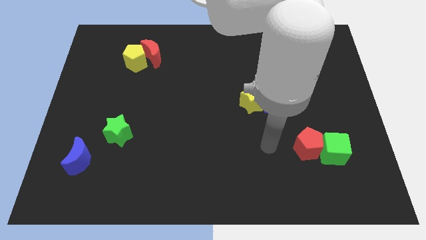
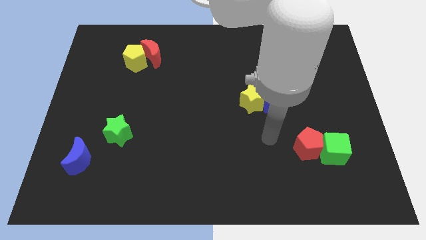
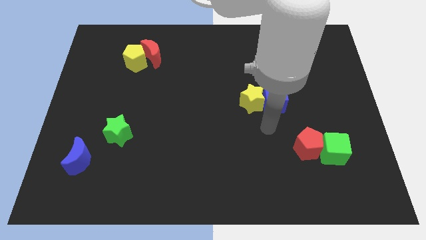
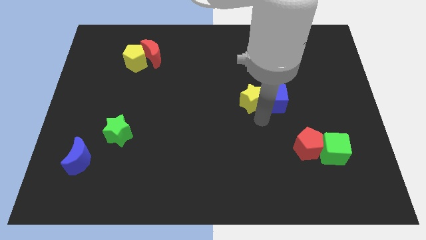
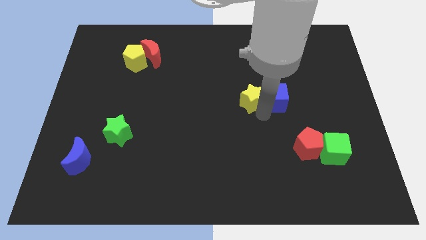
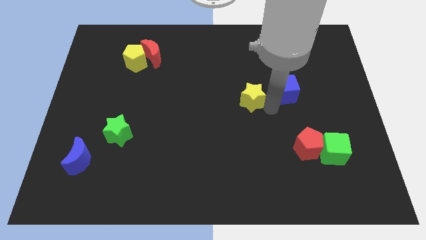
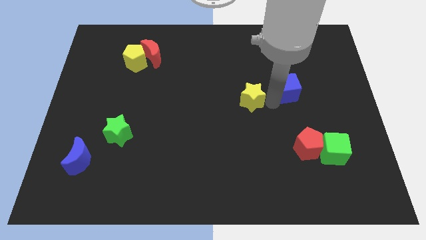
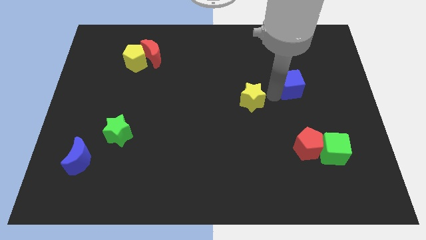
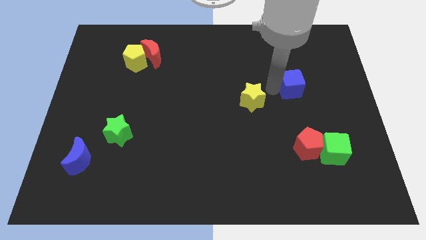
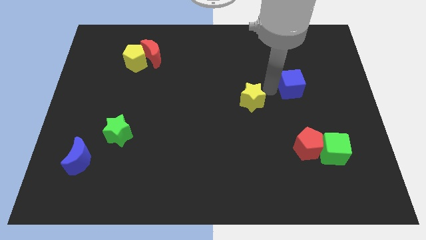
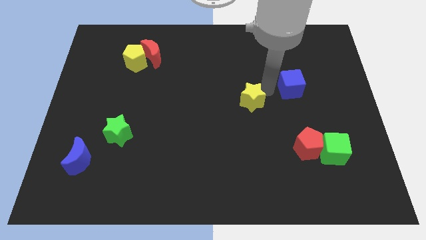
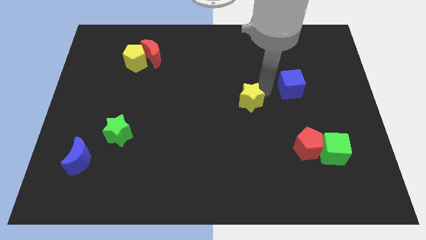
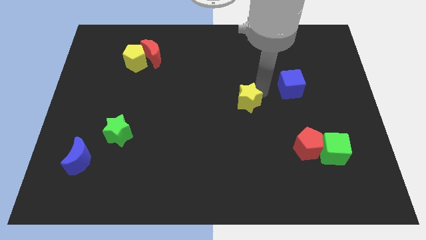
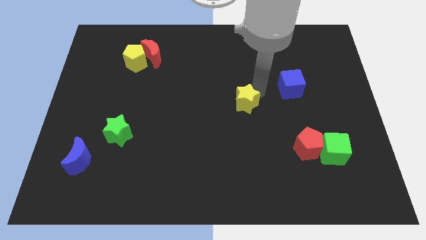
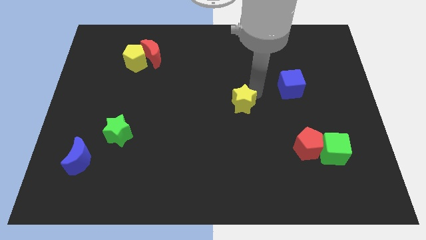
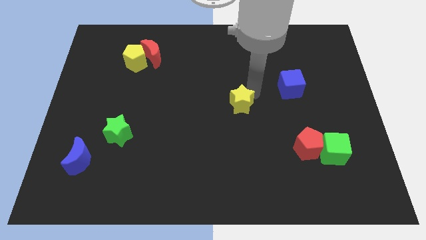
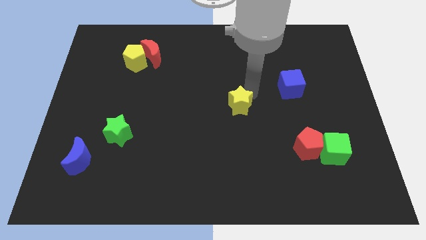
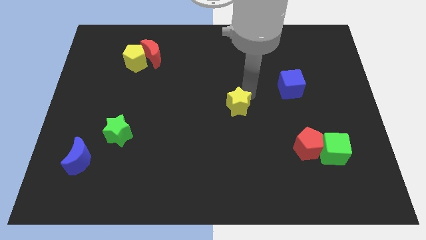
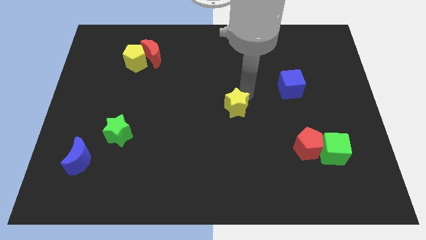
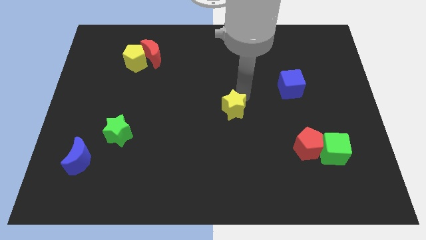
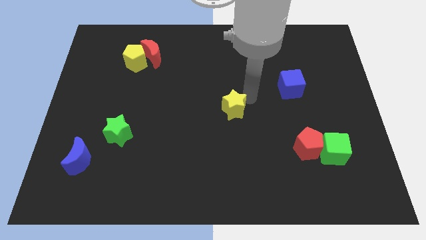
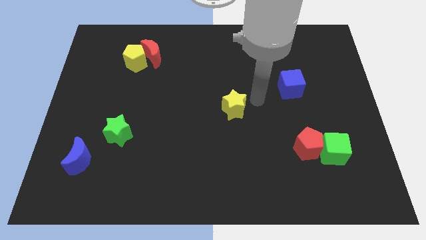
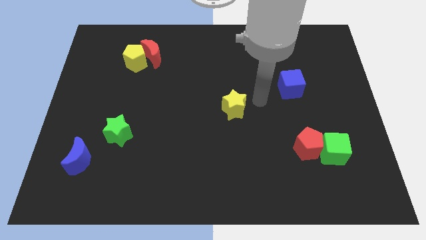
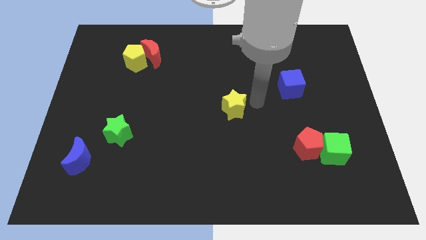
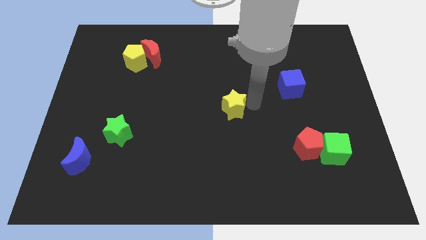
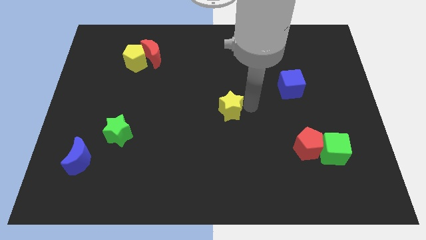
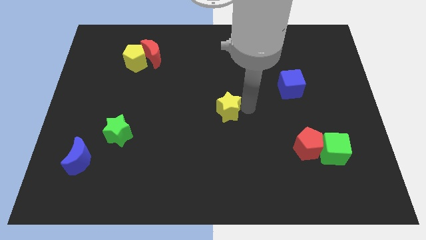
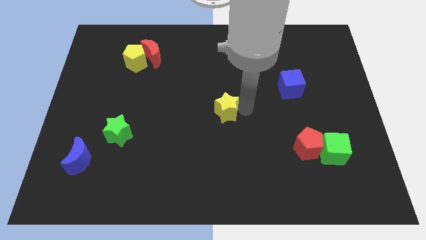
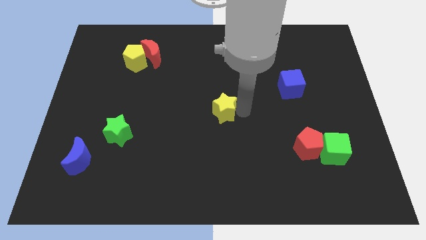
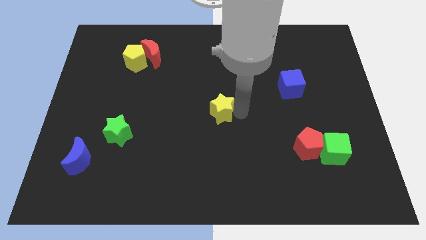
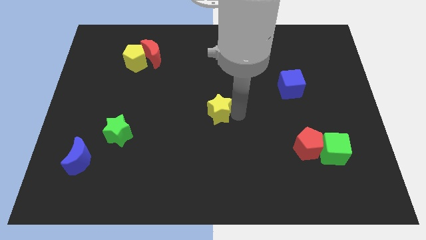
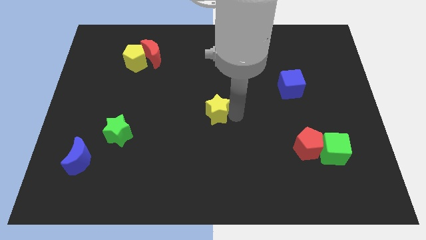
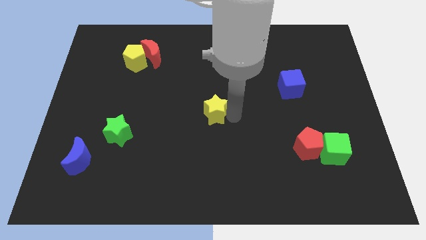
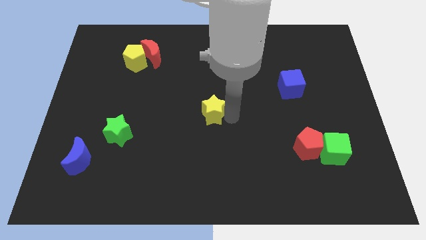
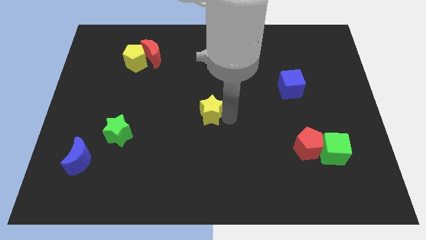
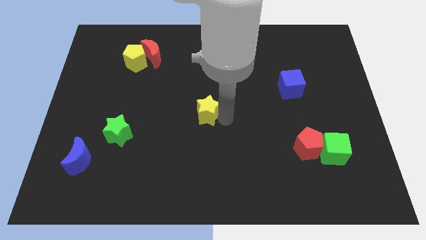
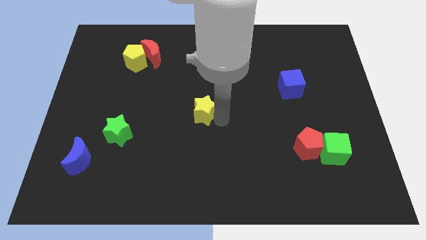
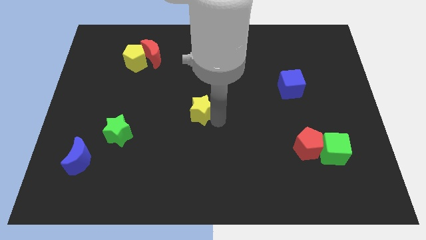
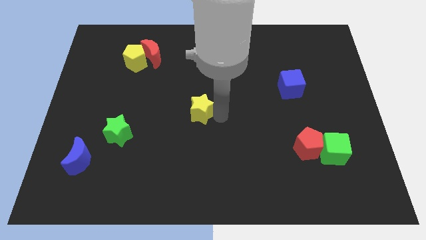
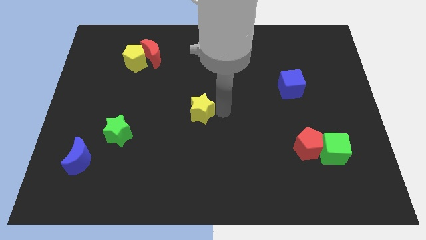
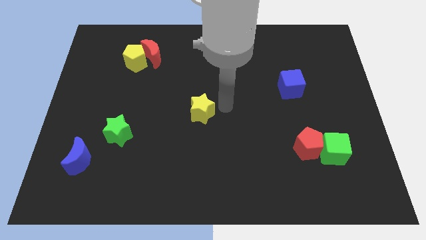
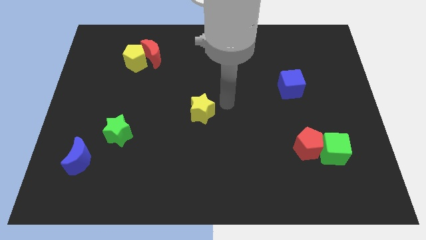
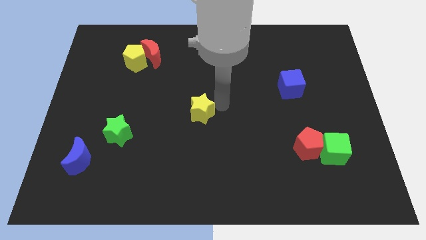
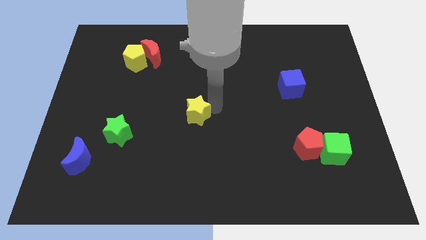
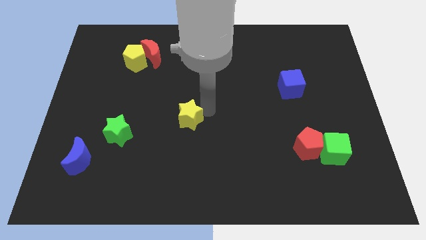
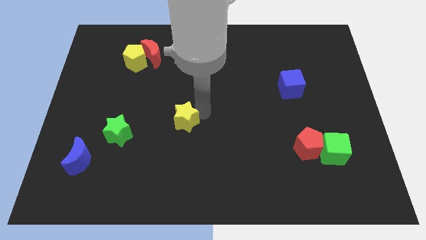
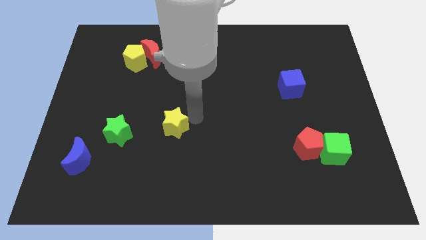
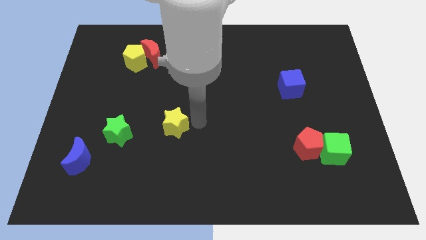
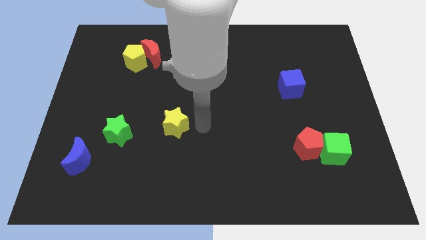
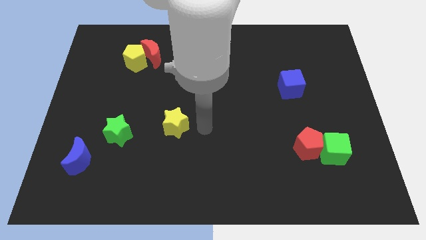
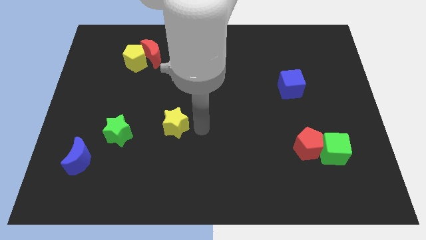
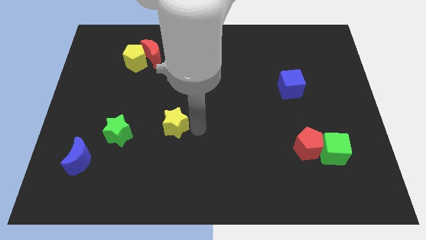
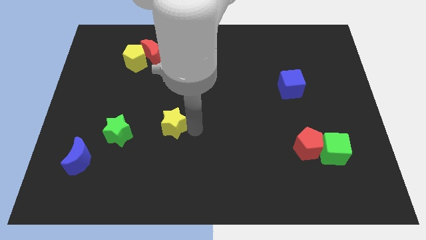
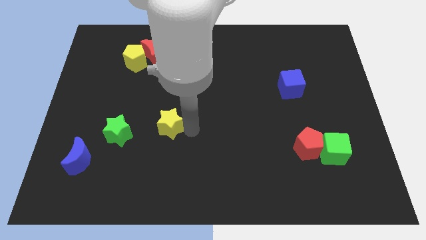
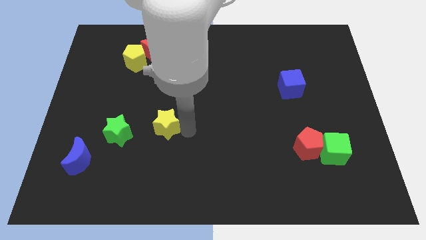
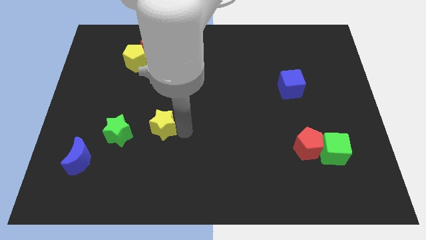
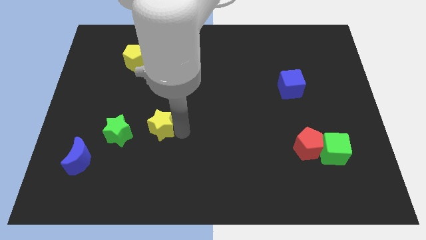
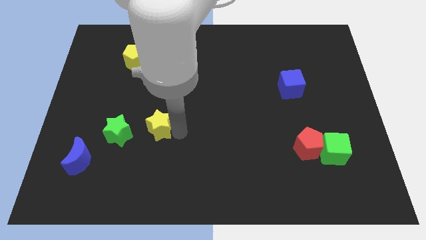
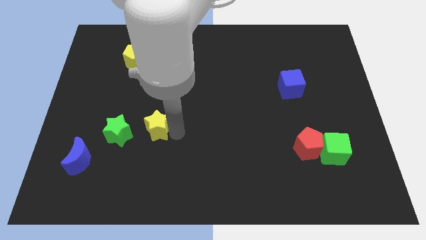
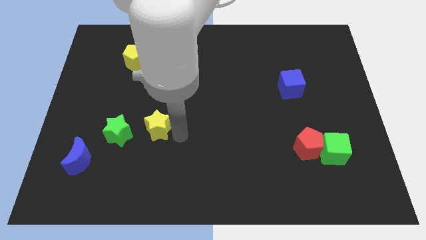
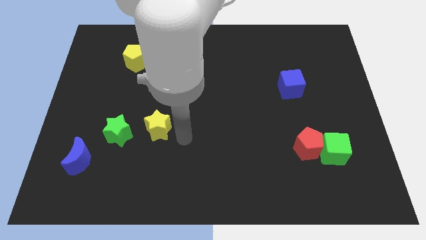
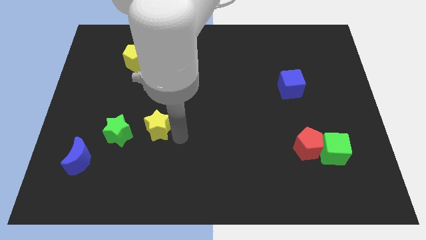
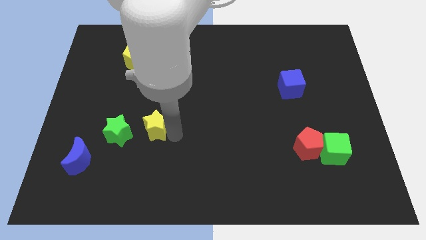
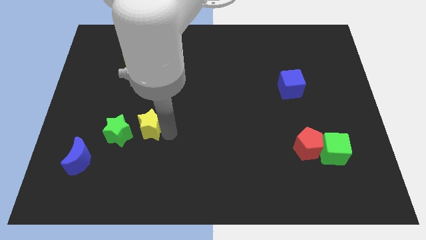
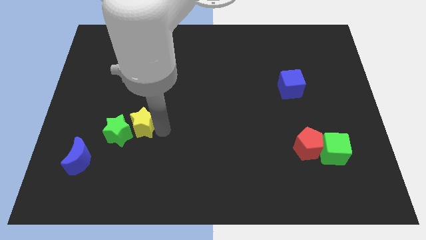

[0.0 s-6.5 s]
put the yellow star close to the green star

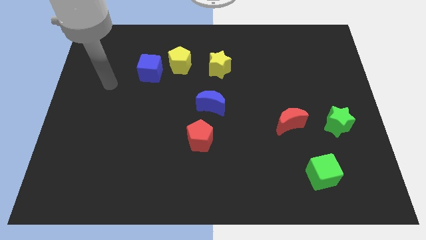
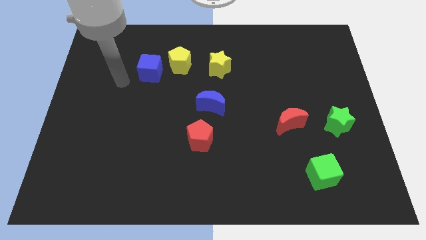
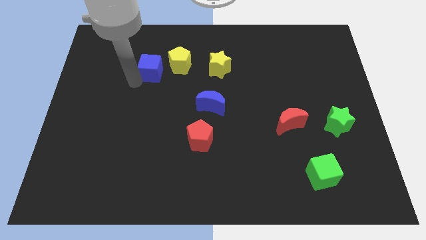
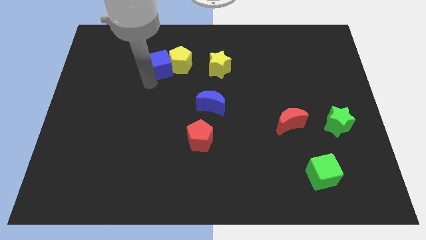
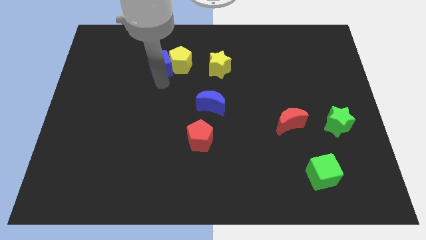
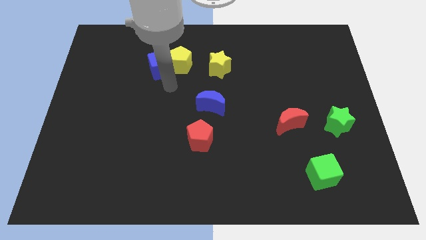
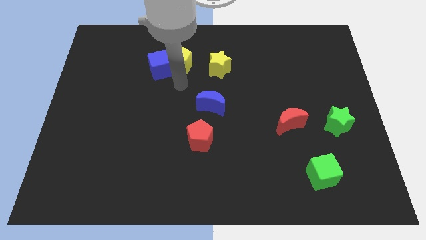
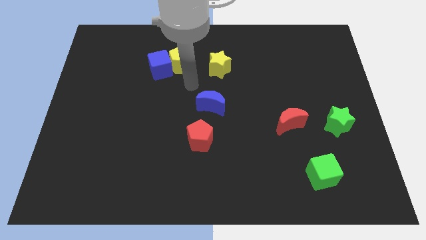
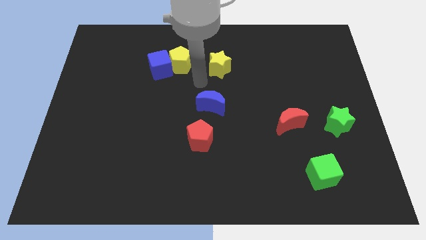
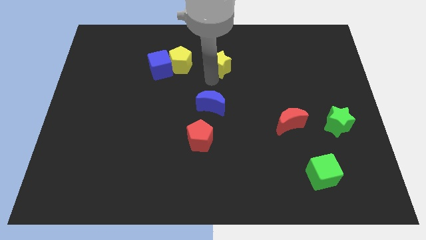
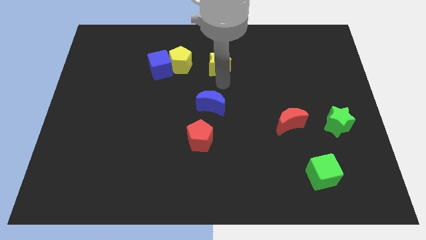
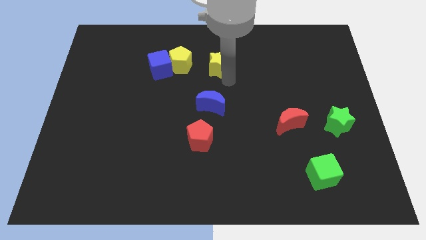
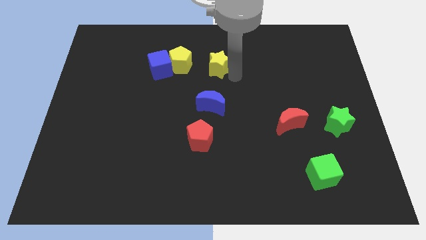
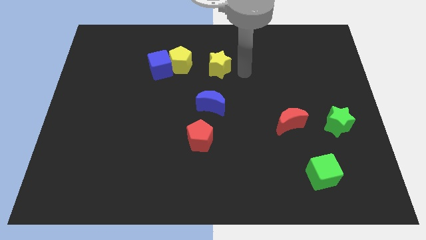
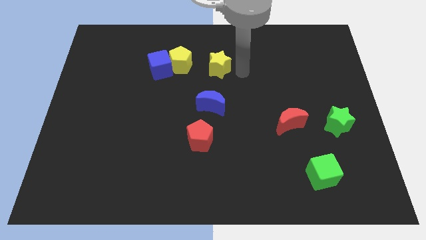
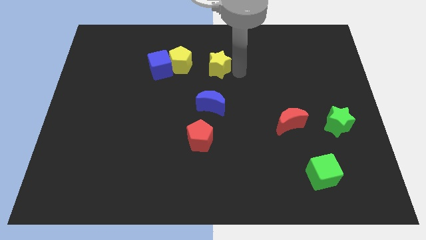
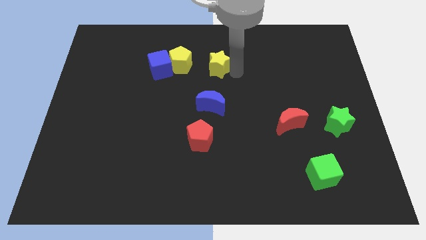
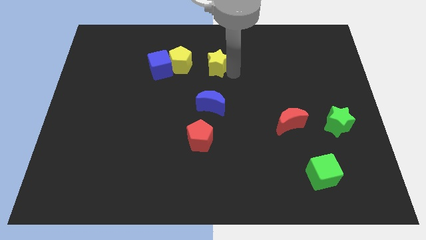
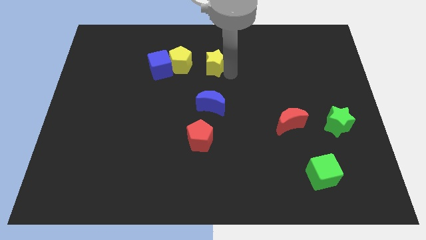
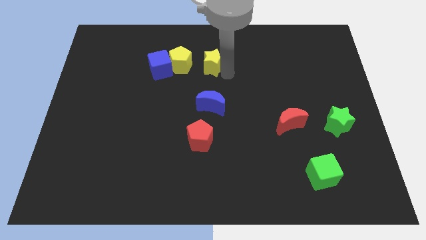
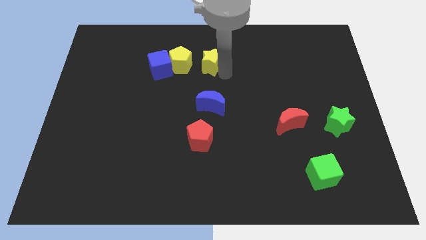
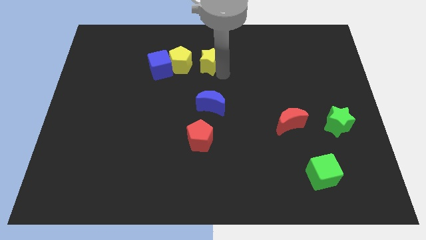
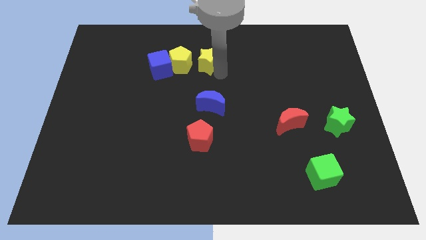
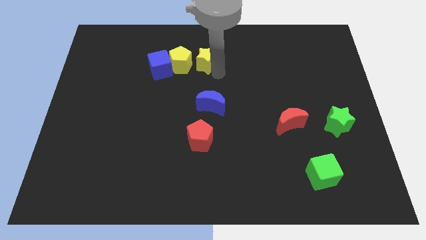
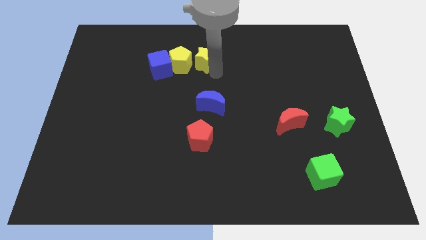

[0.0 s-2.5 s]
push the yellow star towards the yellow pentagon
